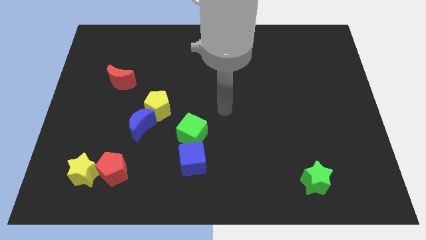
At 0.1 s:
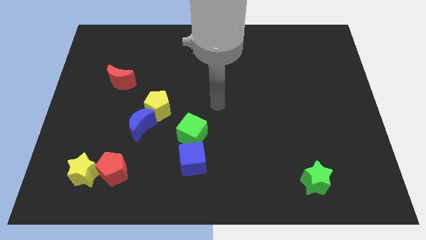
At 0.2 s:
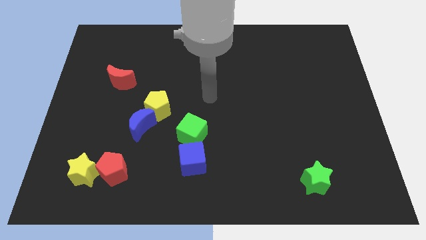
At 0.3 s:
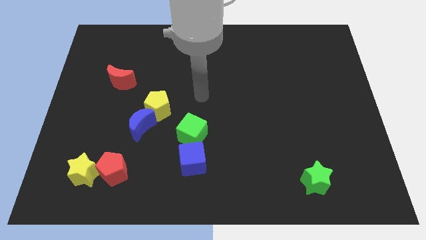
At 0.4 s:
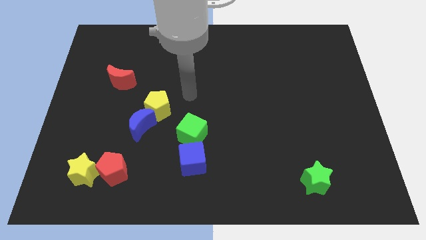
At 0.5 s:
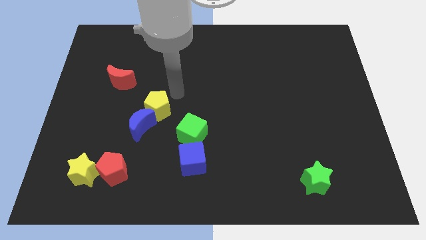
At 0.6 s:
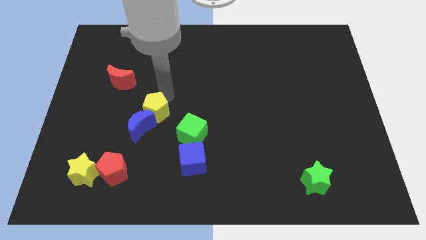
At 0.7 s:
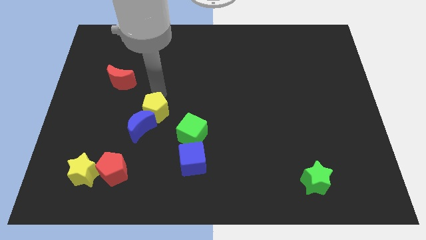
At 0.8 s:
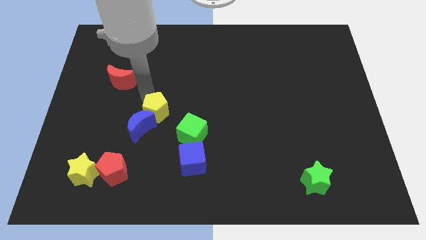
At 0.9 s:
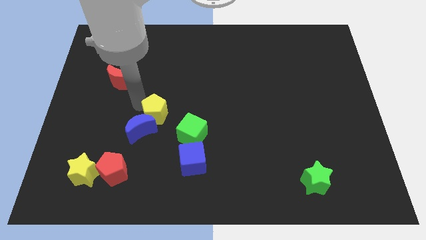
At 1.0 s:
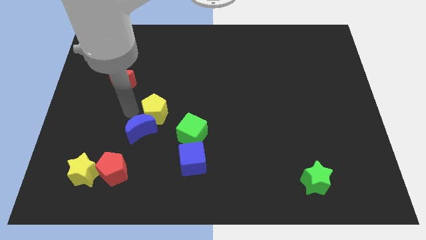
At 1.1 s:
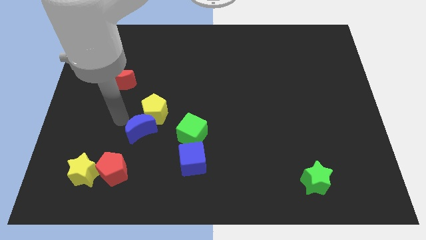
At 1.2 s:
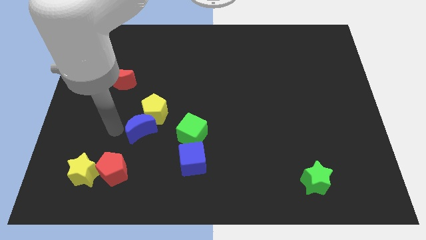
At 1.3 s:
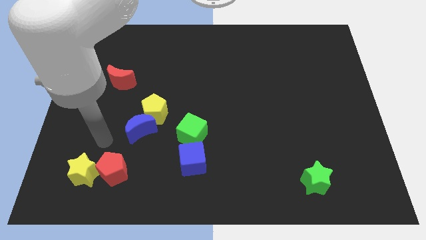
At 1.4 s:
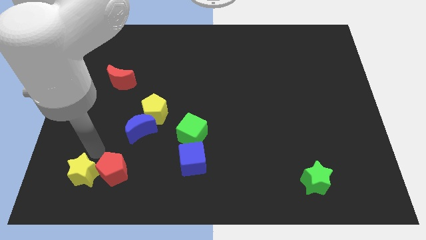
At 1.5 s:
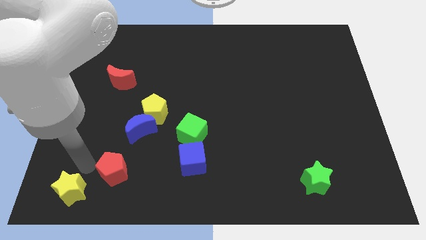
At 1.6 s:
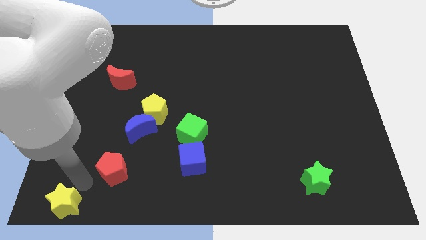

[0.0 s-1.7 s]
pull the red pentagon apart from the yellow star

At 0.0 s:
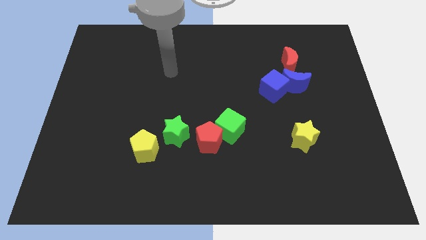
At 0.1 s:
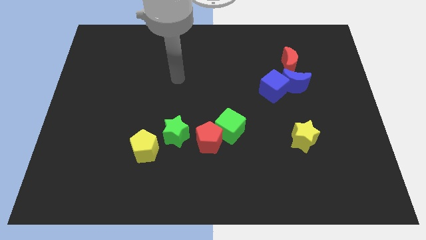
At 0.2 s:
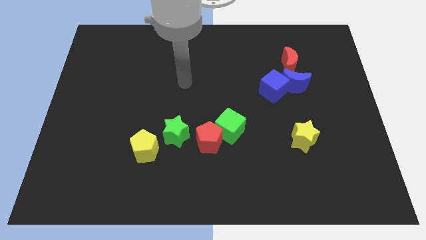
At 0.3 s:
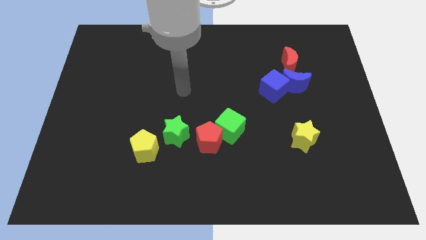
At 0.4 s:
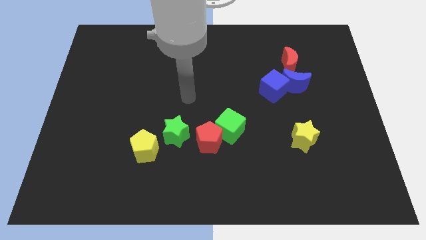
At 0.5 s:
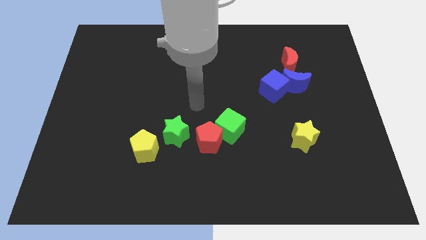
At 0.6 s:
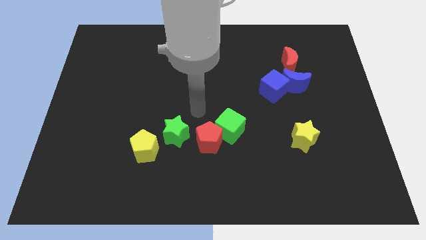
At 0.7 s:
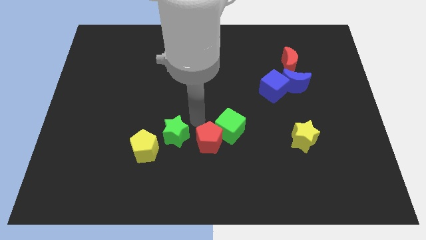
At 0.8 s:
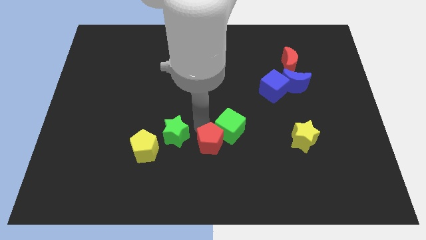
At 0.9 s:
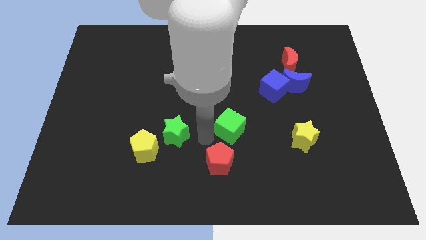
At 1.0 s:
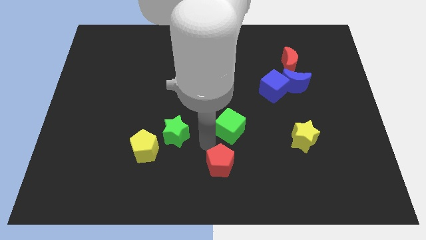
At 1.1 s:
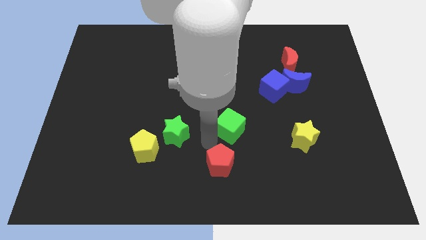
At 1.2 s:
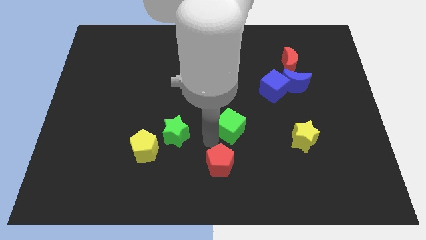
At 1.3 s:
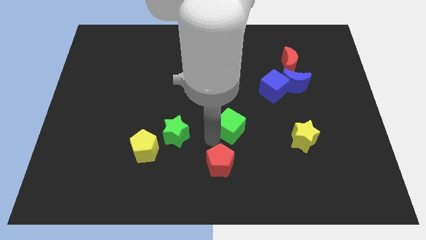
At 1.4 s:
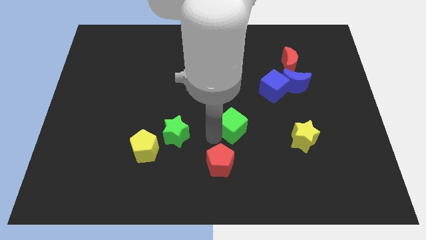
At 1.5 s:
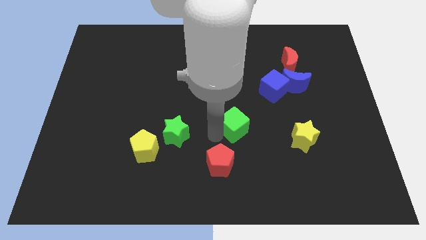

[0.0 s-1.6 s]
pull the green cube apart from the red pentagon

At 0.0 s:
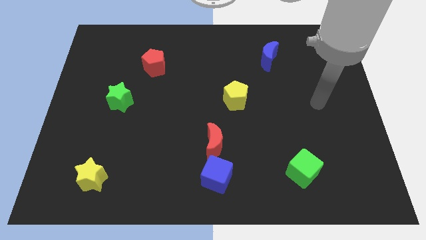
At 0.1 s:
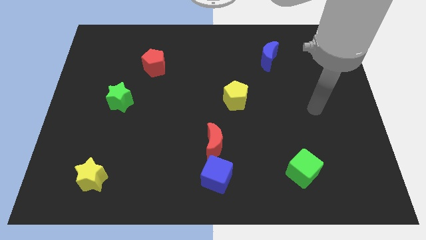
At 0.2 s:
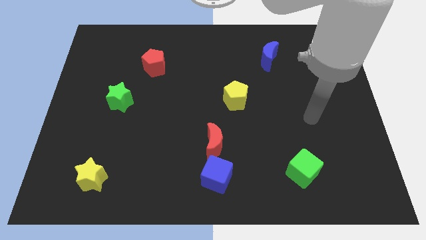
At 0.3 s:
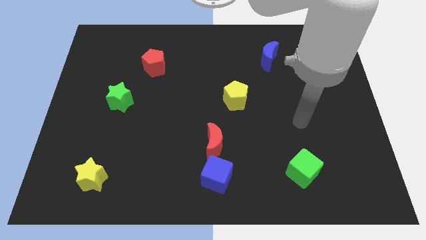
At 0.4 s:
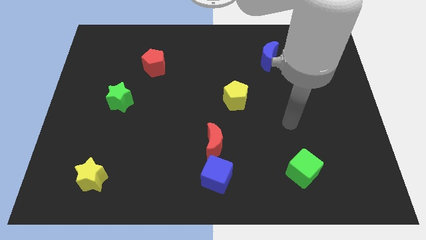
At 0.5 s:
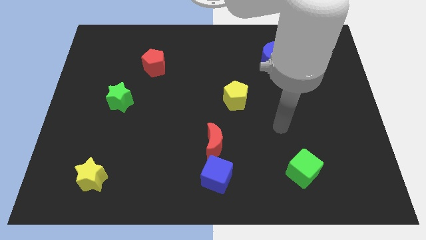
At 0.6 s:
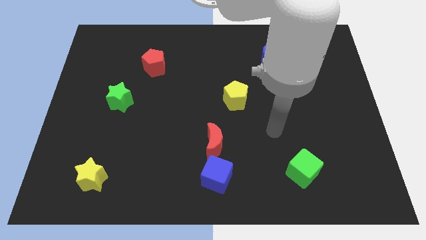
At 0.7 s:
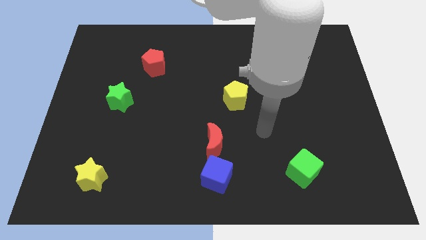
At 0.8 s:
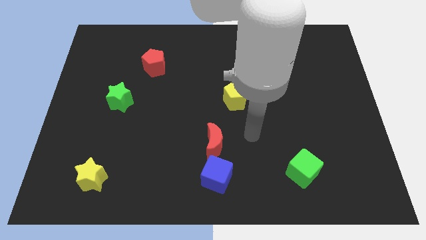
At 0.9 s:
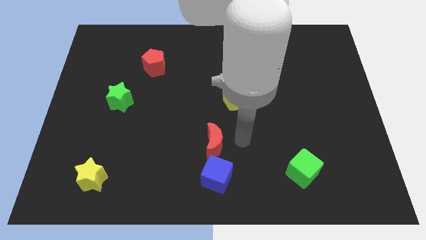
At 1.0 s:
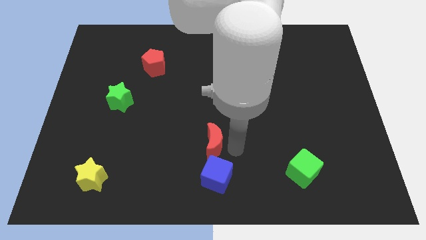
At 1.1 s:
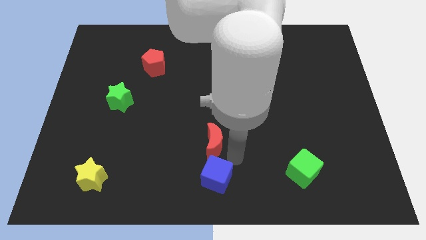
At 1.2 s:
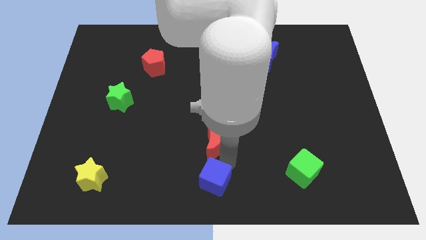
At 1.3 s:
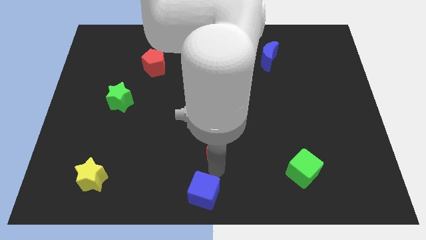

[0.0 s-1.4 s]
move the red moon away from the blue cube

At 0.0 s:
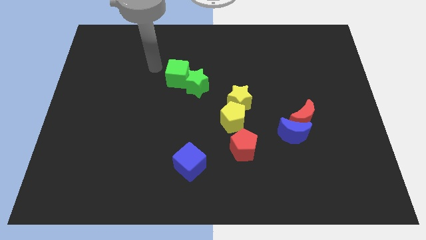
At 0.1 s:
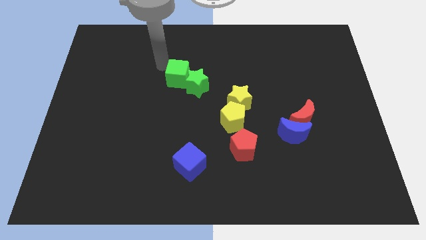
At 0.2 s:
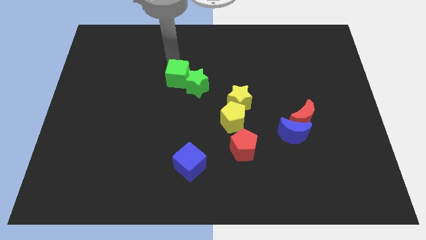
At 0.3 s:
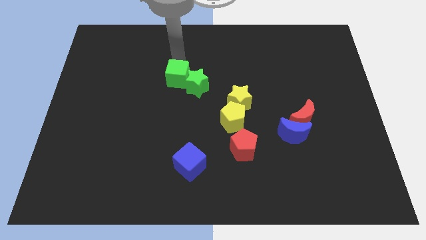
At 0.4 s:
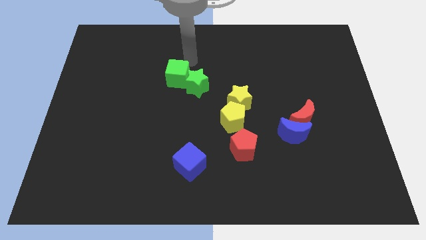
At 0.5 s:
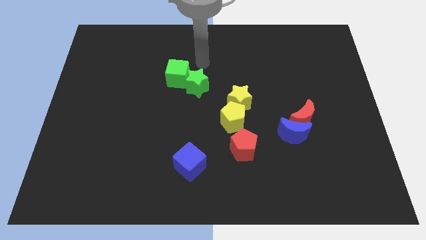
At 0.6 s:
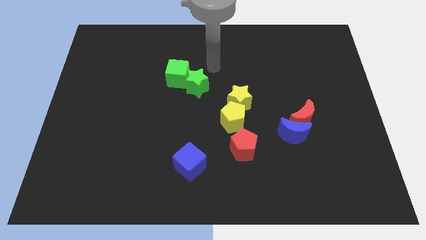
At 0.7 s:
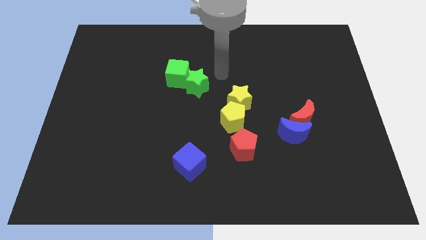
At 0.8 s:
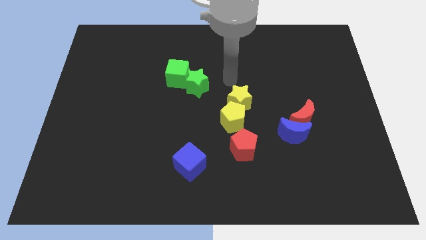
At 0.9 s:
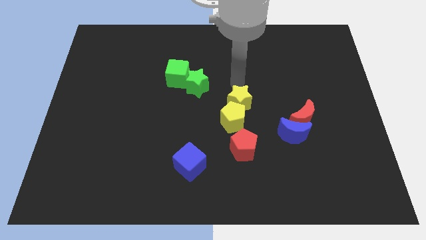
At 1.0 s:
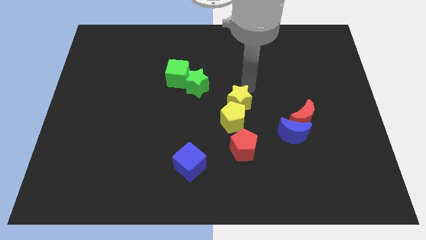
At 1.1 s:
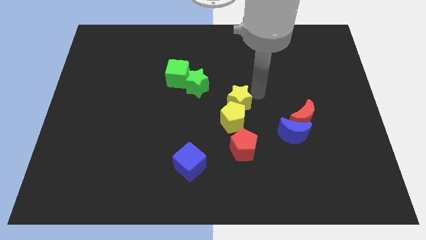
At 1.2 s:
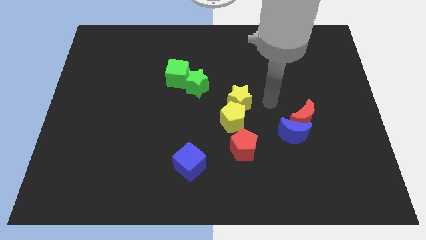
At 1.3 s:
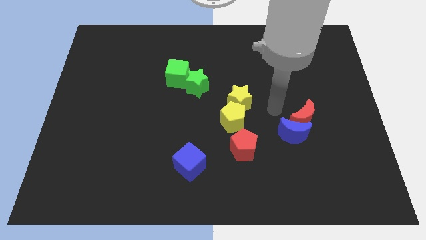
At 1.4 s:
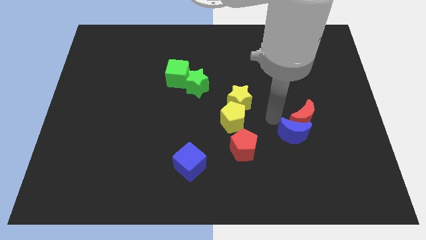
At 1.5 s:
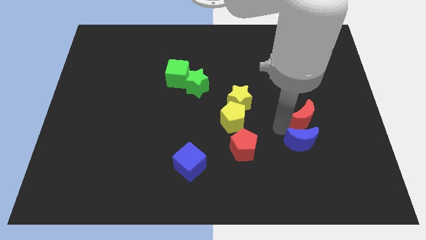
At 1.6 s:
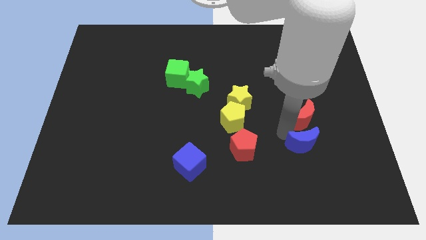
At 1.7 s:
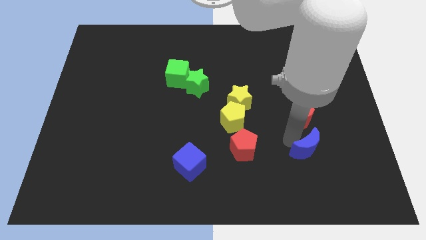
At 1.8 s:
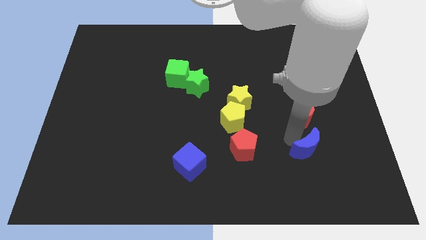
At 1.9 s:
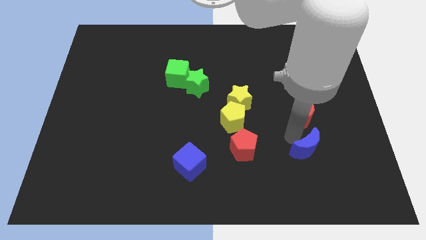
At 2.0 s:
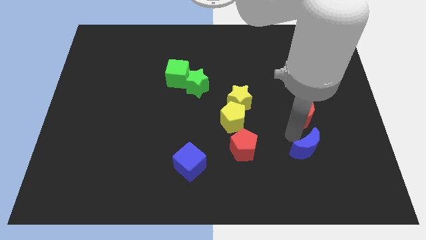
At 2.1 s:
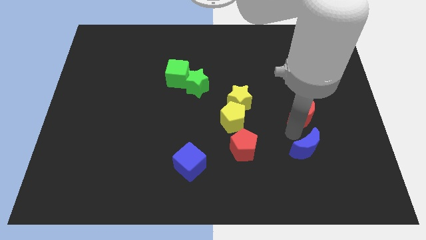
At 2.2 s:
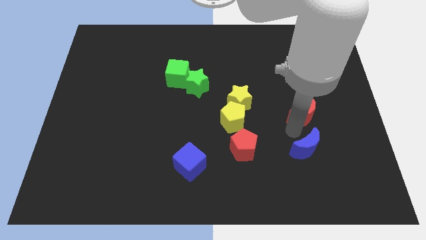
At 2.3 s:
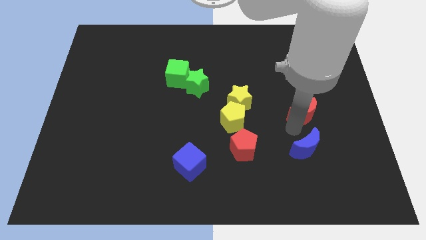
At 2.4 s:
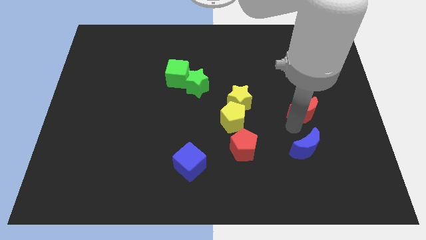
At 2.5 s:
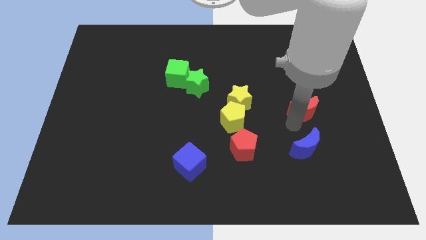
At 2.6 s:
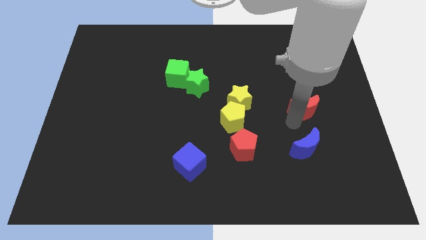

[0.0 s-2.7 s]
separate the red moon from the blue moon

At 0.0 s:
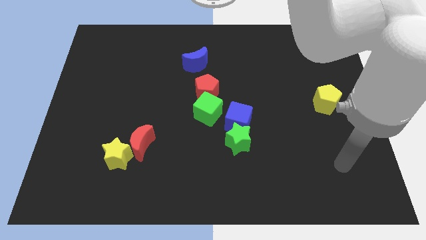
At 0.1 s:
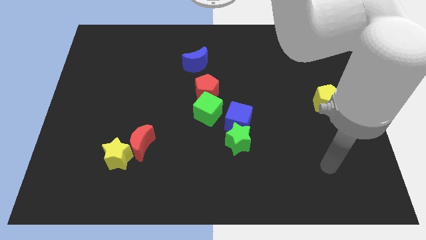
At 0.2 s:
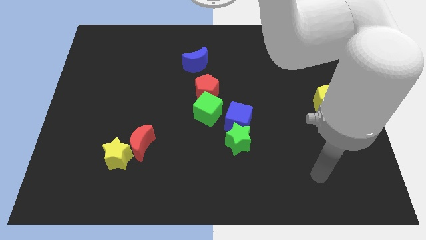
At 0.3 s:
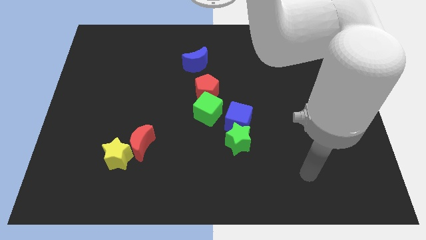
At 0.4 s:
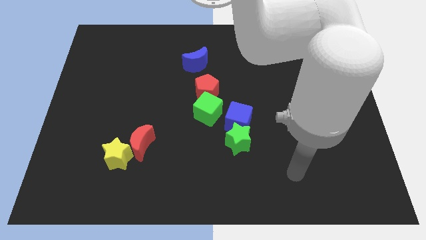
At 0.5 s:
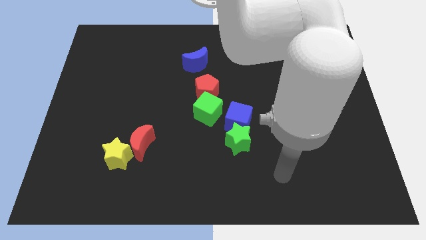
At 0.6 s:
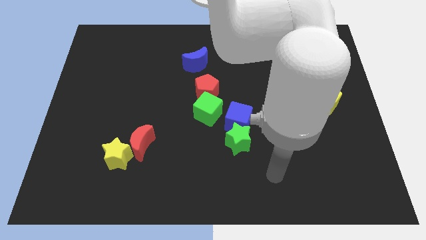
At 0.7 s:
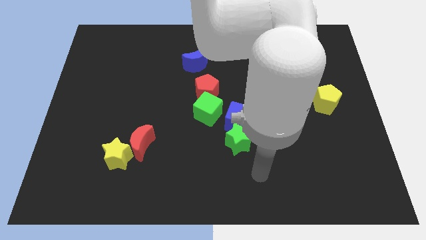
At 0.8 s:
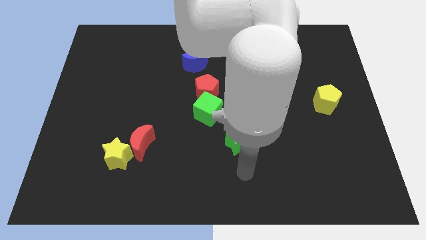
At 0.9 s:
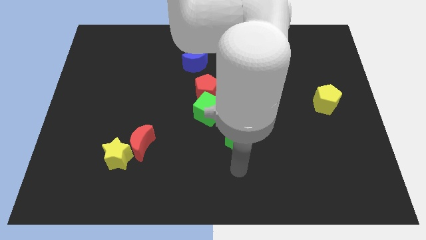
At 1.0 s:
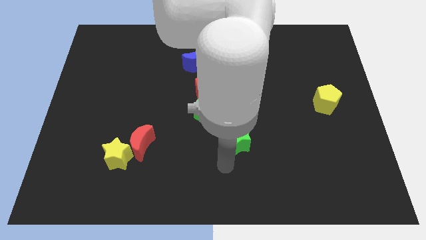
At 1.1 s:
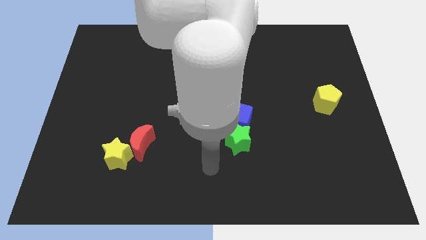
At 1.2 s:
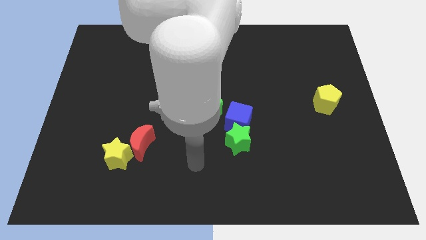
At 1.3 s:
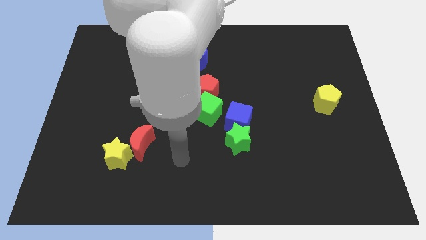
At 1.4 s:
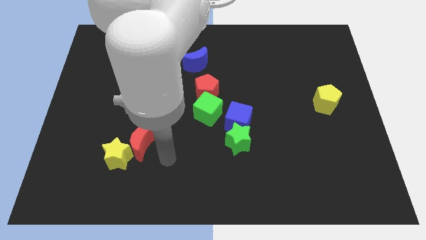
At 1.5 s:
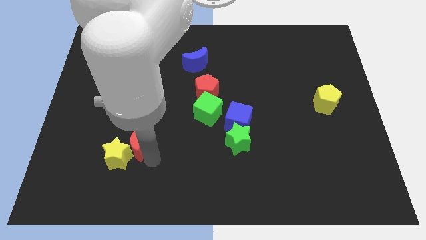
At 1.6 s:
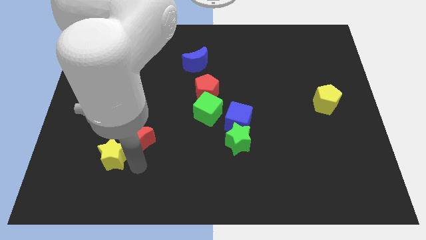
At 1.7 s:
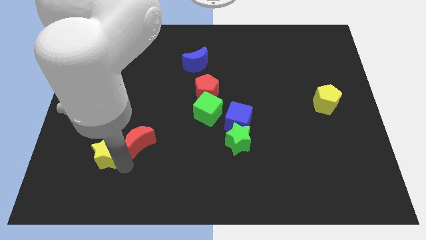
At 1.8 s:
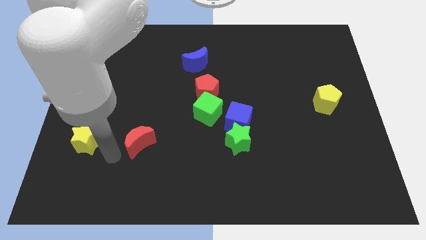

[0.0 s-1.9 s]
pull the red moon apart from the yellow star

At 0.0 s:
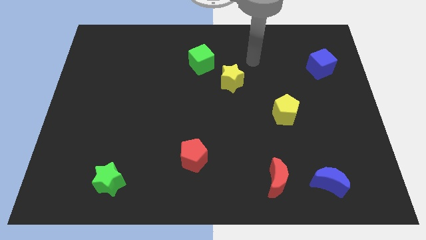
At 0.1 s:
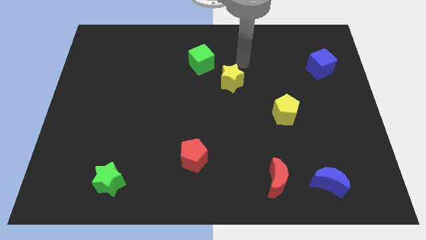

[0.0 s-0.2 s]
move the green cube away from the yellow star
